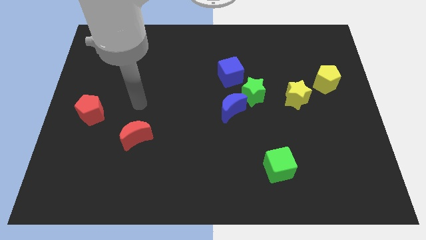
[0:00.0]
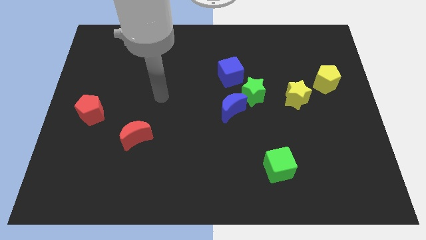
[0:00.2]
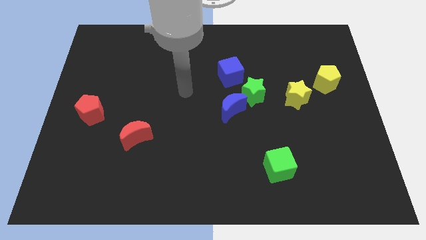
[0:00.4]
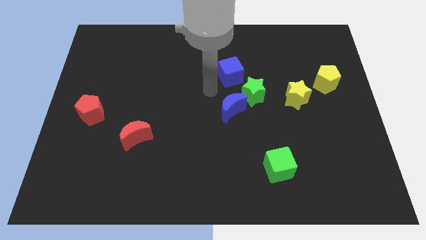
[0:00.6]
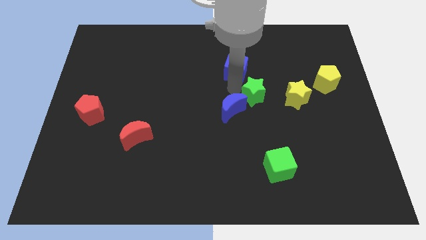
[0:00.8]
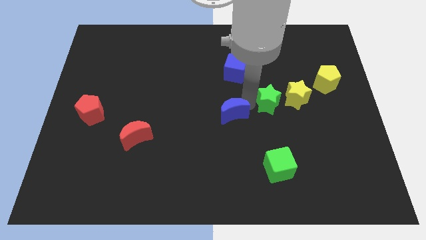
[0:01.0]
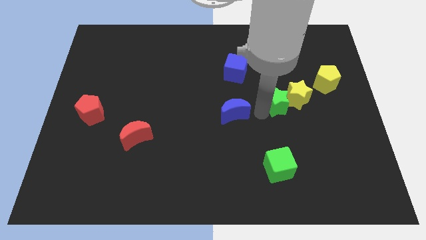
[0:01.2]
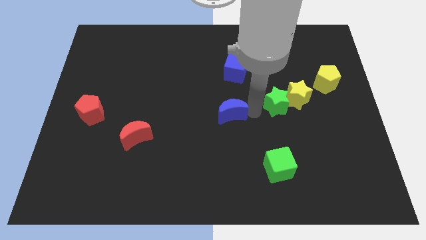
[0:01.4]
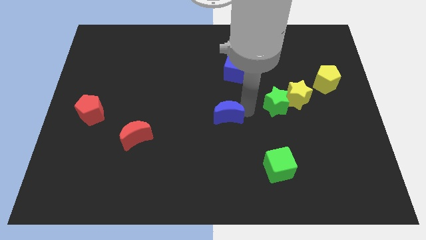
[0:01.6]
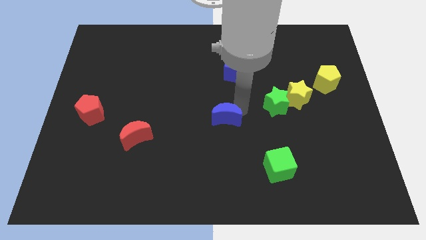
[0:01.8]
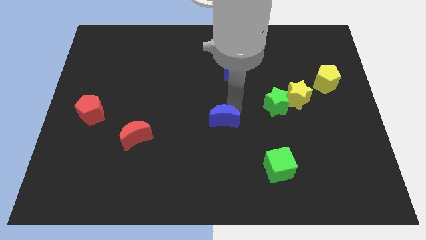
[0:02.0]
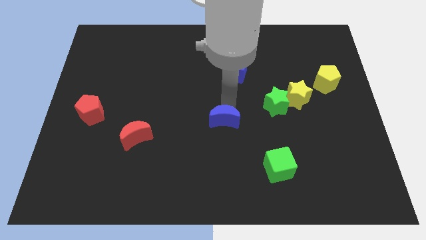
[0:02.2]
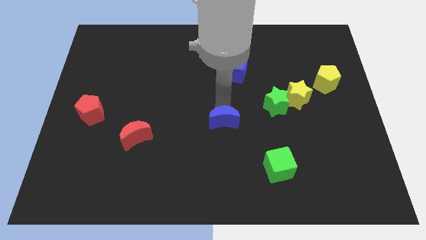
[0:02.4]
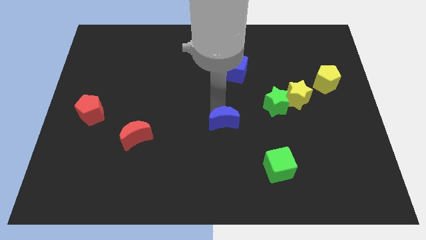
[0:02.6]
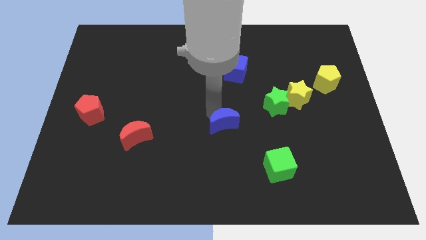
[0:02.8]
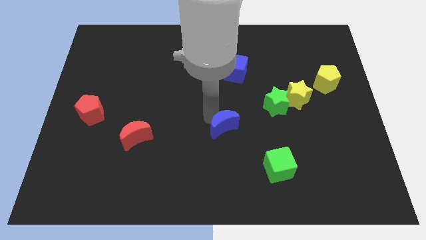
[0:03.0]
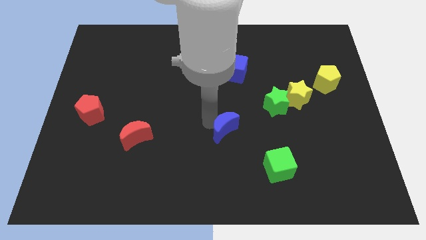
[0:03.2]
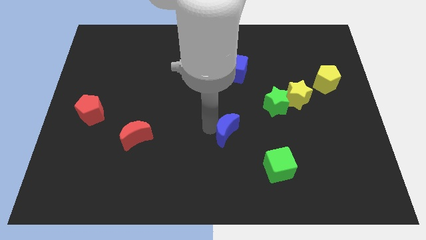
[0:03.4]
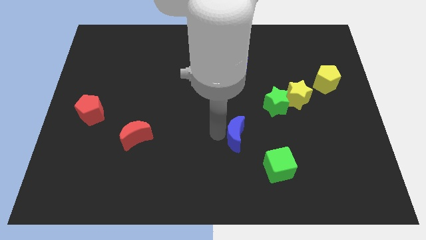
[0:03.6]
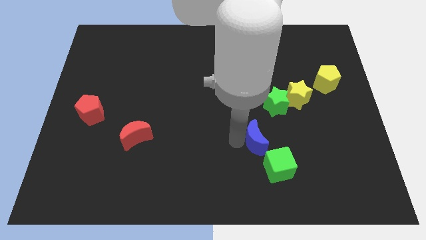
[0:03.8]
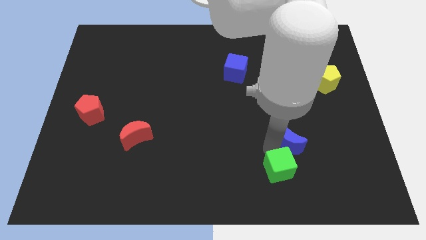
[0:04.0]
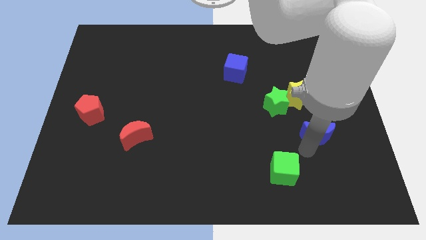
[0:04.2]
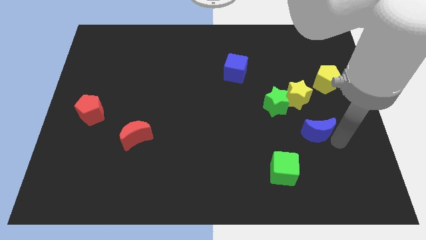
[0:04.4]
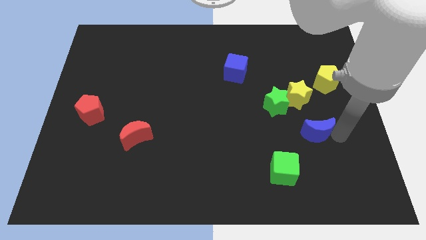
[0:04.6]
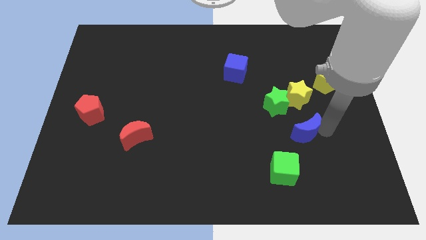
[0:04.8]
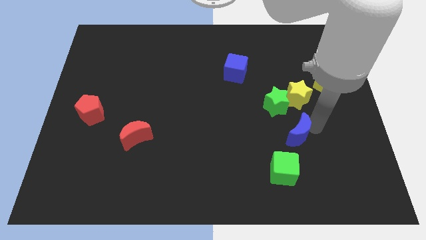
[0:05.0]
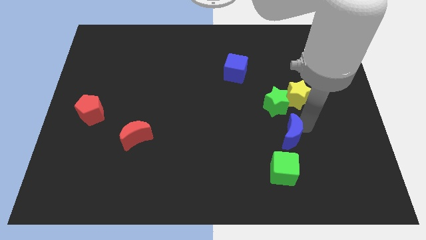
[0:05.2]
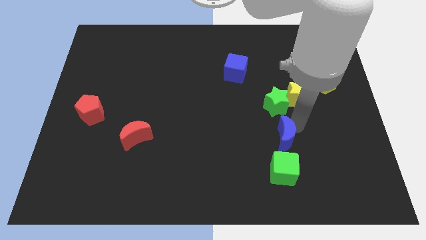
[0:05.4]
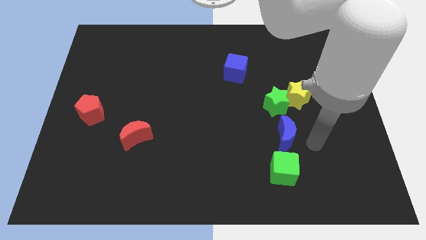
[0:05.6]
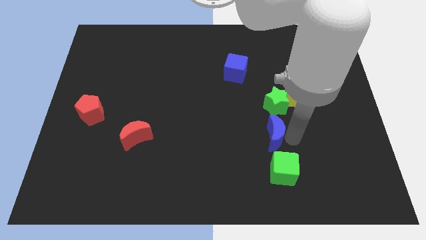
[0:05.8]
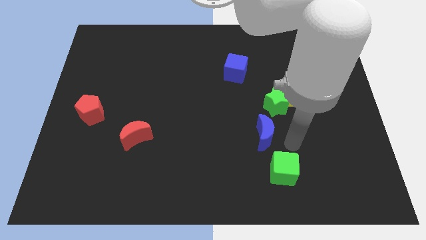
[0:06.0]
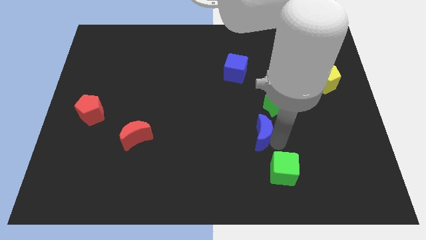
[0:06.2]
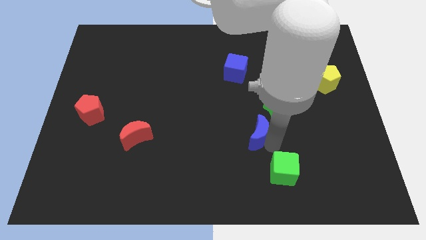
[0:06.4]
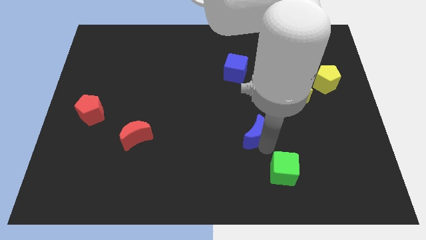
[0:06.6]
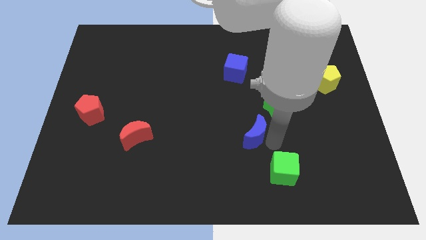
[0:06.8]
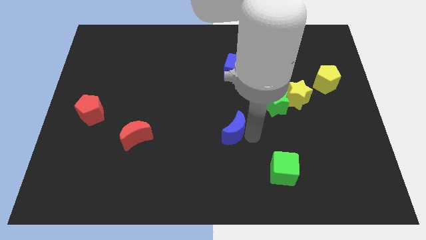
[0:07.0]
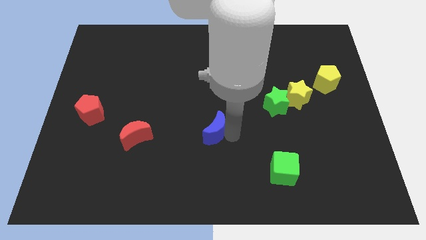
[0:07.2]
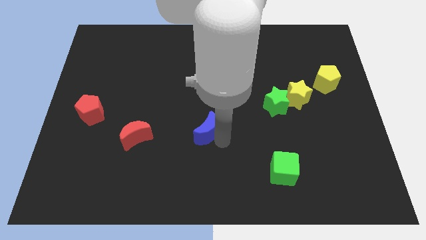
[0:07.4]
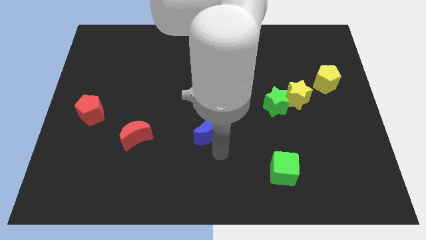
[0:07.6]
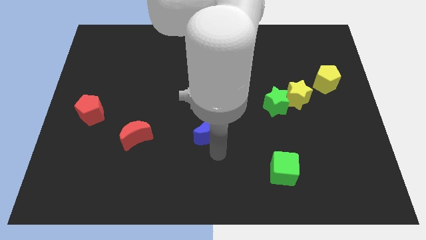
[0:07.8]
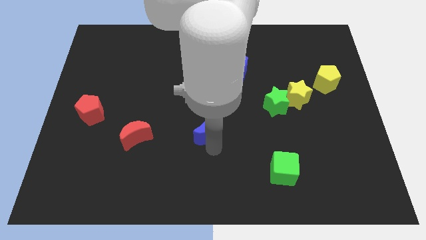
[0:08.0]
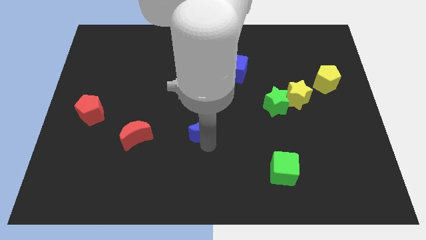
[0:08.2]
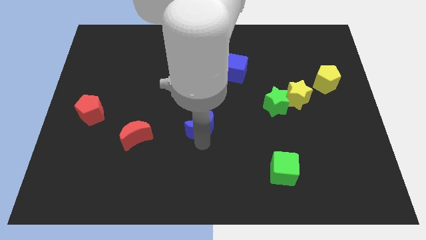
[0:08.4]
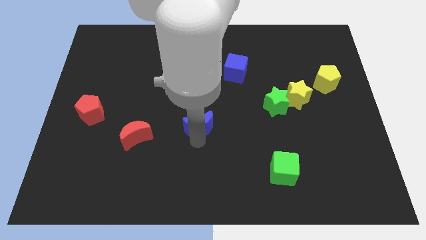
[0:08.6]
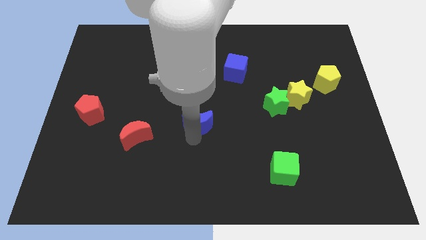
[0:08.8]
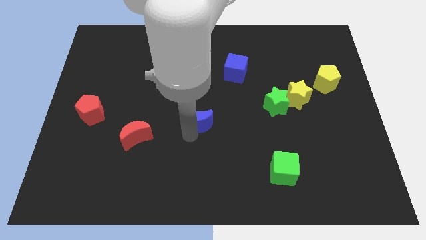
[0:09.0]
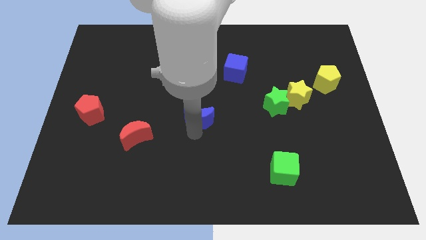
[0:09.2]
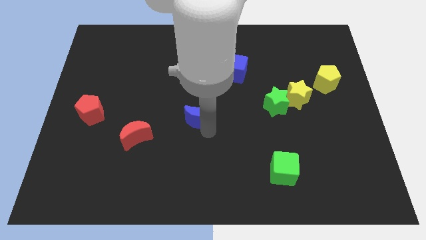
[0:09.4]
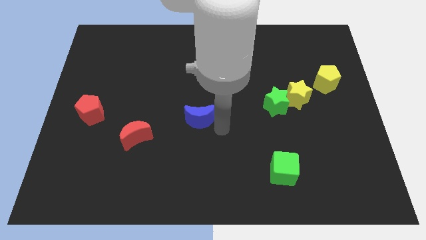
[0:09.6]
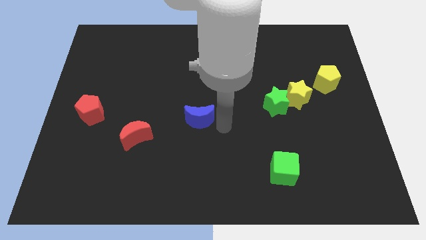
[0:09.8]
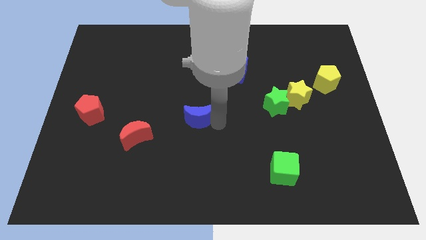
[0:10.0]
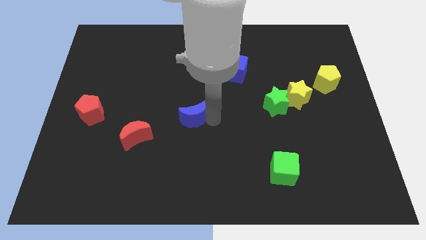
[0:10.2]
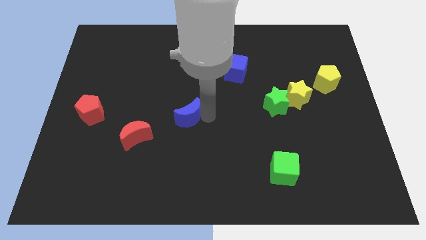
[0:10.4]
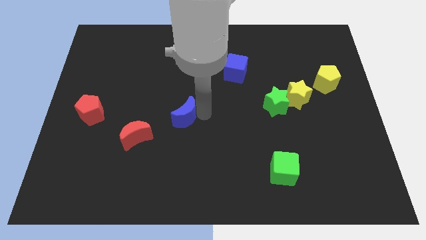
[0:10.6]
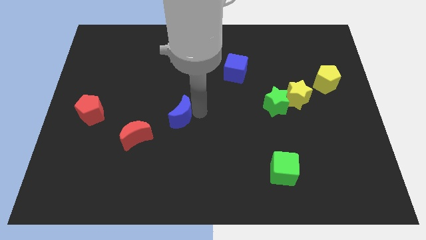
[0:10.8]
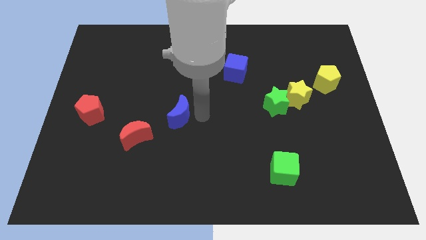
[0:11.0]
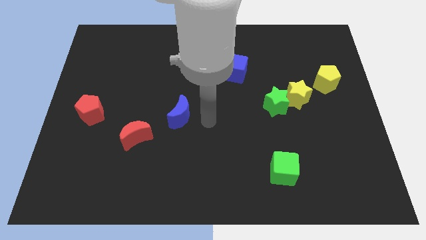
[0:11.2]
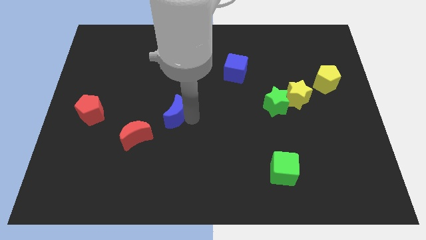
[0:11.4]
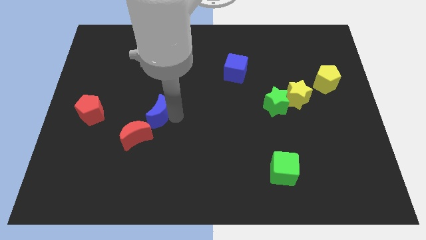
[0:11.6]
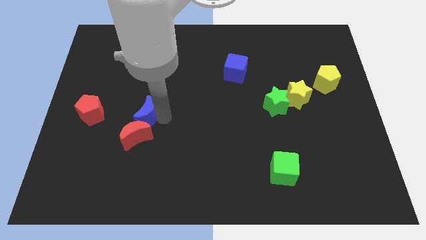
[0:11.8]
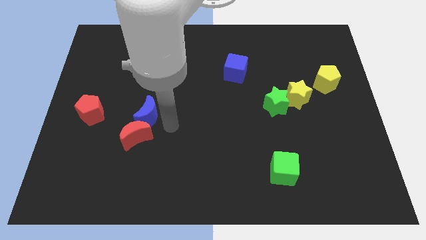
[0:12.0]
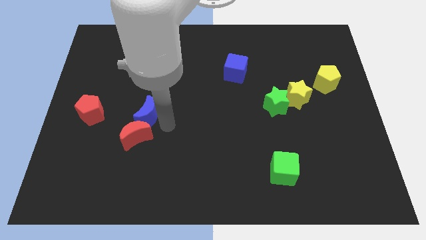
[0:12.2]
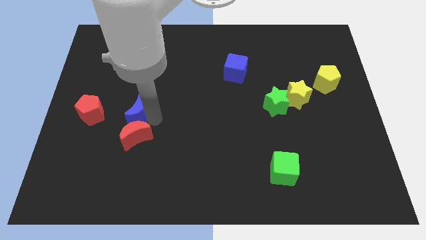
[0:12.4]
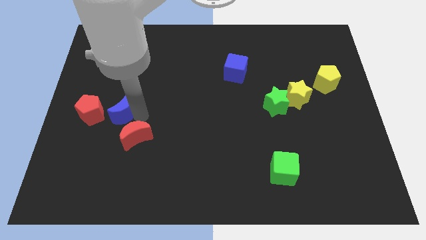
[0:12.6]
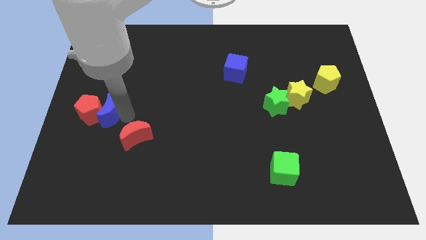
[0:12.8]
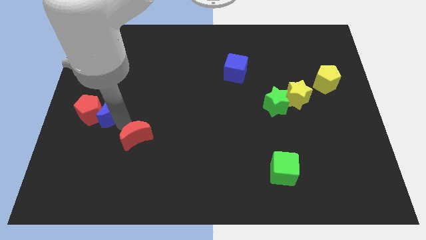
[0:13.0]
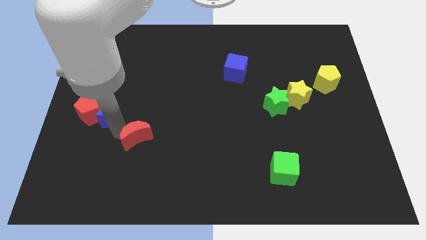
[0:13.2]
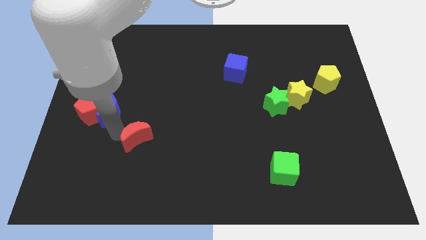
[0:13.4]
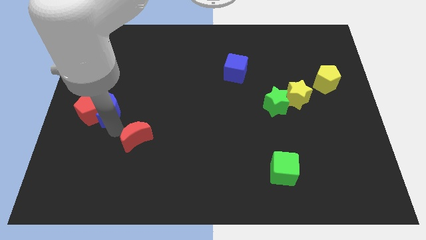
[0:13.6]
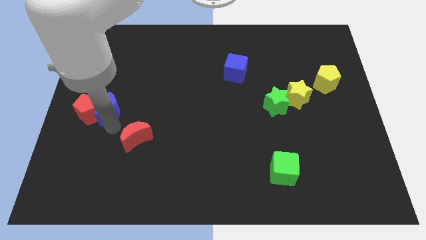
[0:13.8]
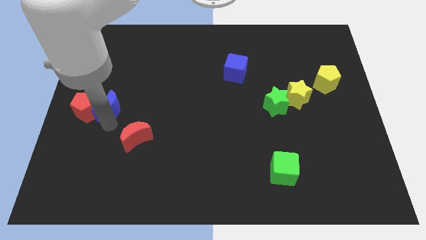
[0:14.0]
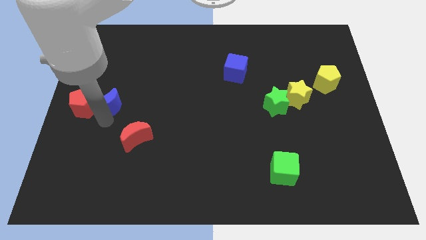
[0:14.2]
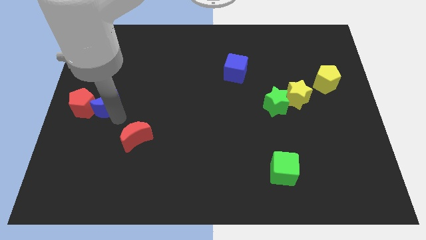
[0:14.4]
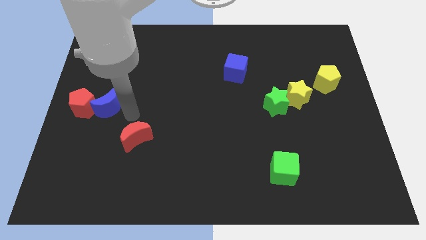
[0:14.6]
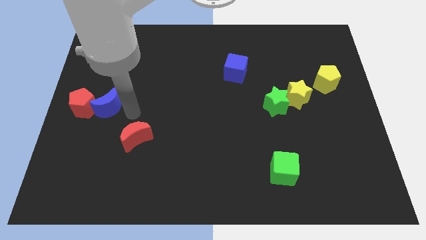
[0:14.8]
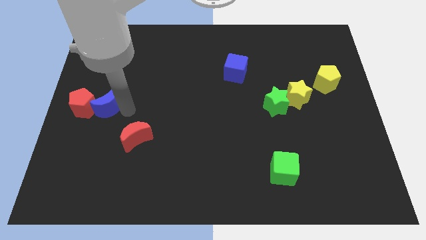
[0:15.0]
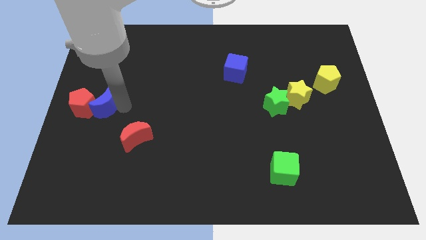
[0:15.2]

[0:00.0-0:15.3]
put the blue moon to the center left
